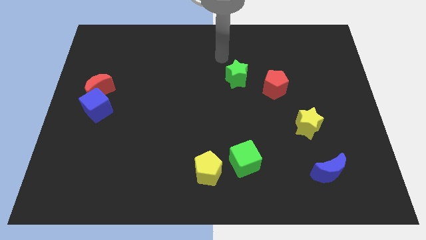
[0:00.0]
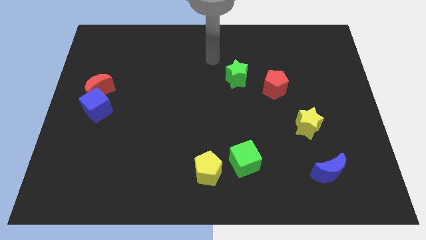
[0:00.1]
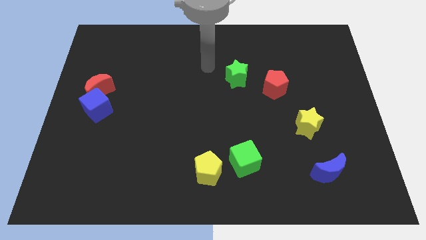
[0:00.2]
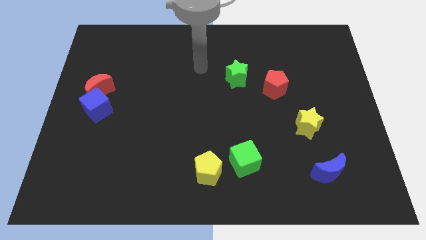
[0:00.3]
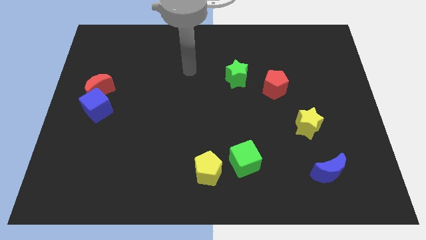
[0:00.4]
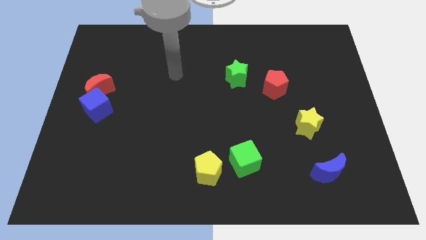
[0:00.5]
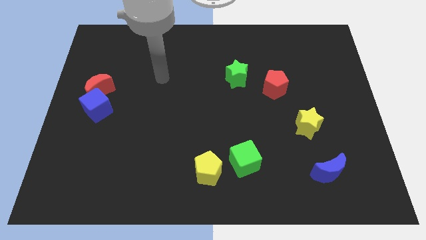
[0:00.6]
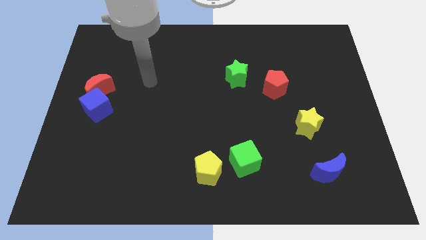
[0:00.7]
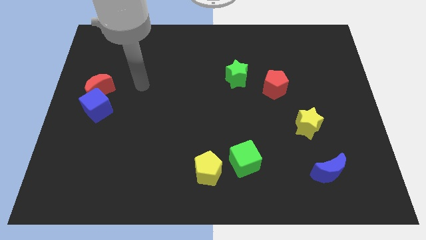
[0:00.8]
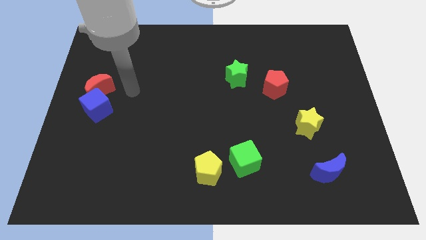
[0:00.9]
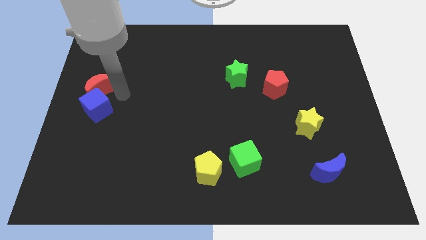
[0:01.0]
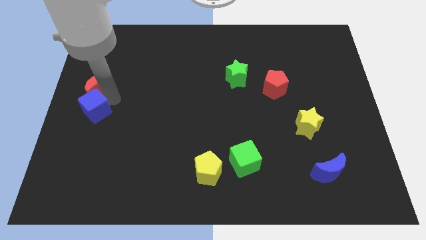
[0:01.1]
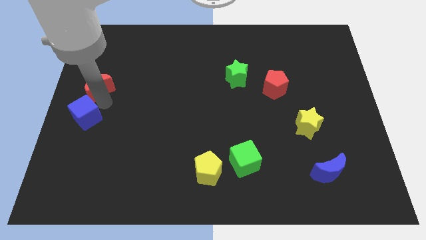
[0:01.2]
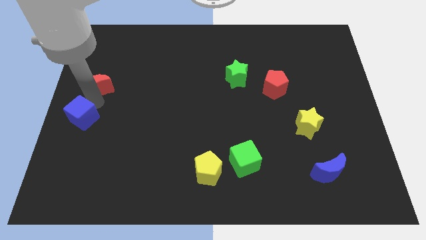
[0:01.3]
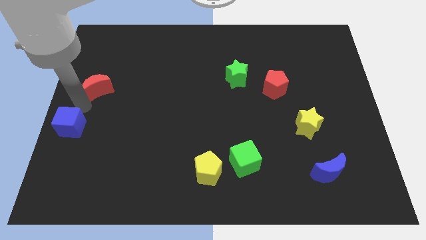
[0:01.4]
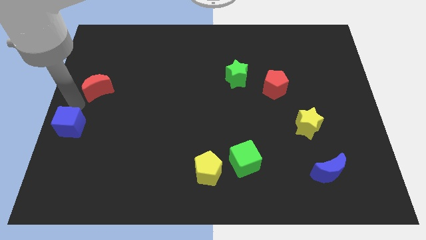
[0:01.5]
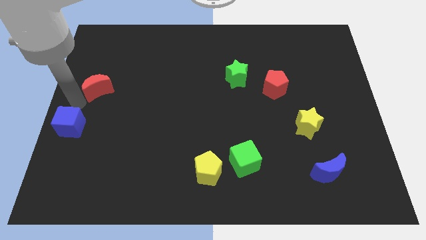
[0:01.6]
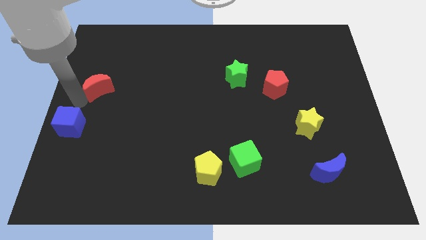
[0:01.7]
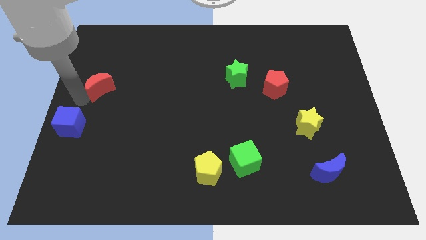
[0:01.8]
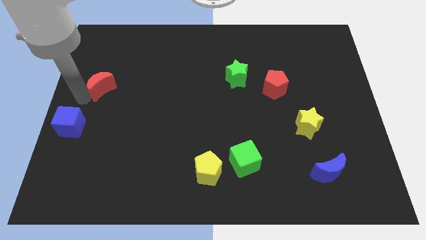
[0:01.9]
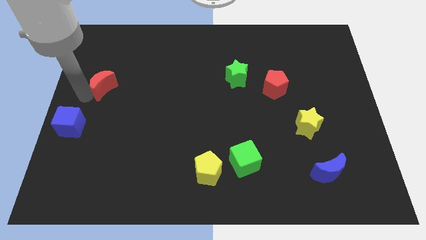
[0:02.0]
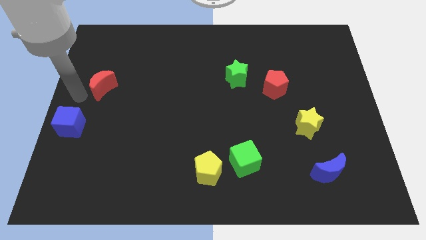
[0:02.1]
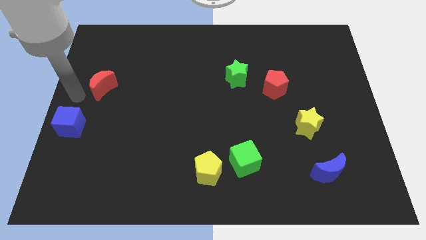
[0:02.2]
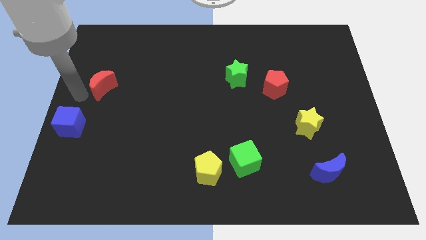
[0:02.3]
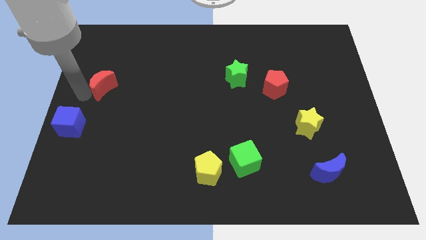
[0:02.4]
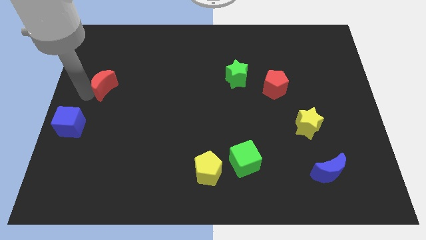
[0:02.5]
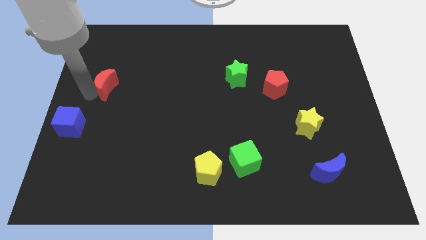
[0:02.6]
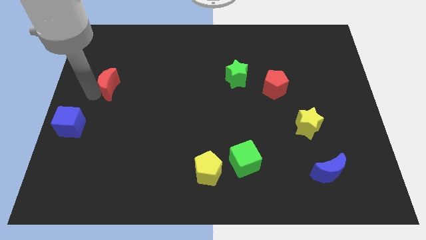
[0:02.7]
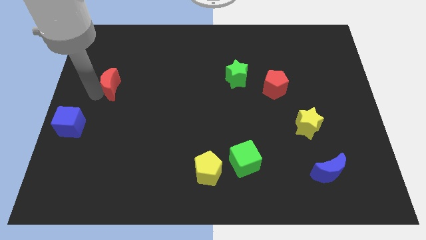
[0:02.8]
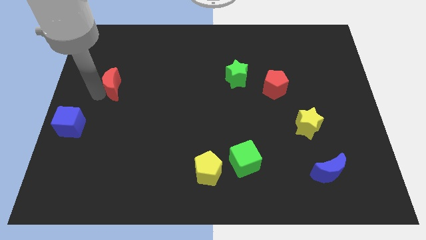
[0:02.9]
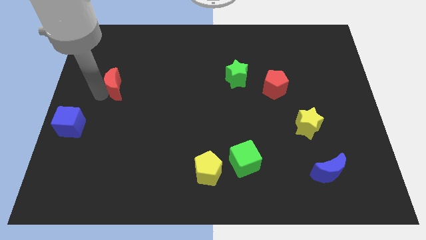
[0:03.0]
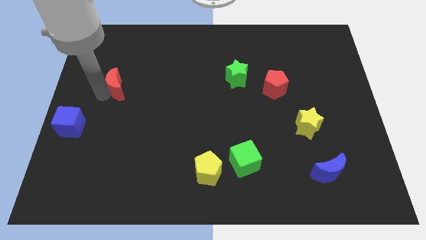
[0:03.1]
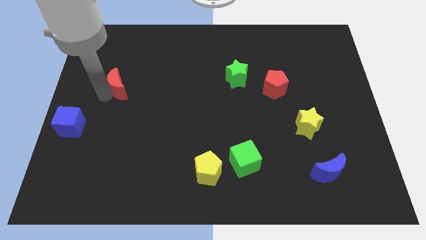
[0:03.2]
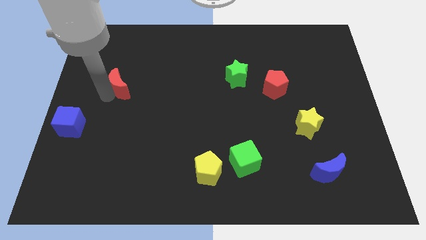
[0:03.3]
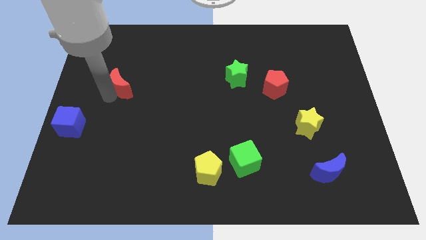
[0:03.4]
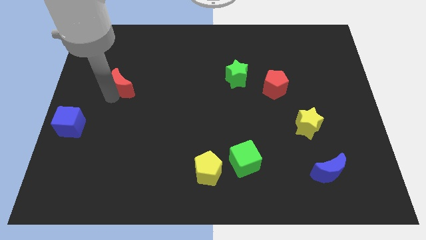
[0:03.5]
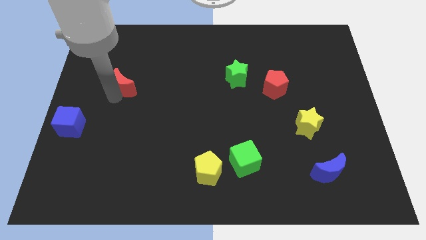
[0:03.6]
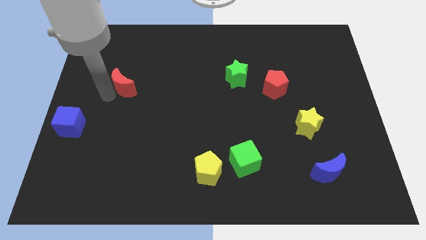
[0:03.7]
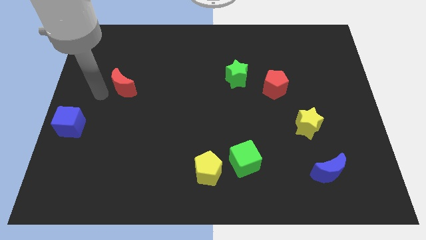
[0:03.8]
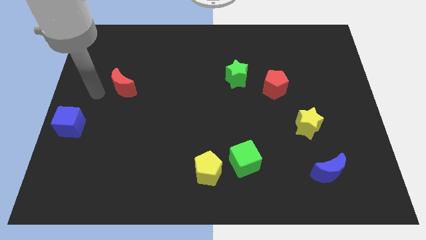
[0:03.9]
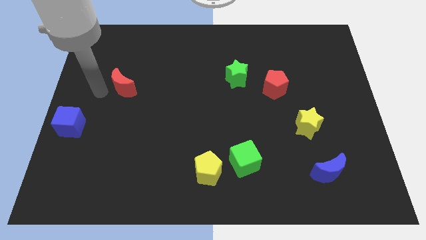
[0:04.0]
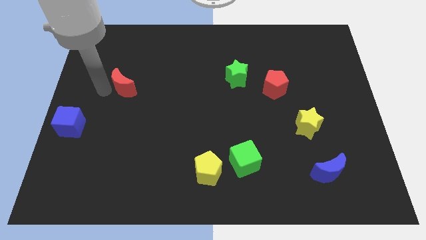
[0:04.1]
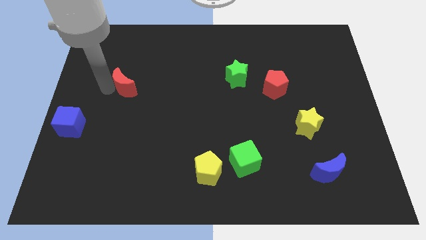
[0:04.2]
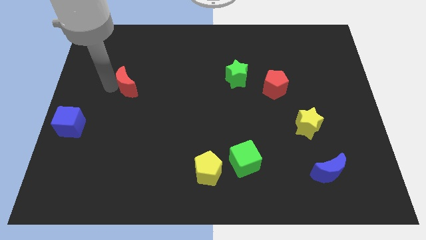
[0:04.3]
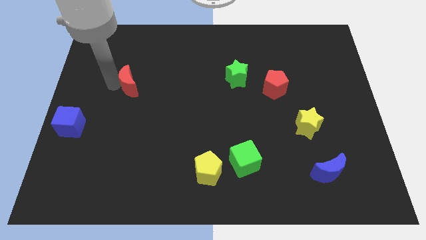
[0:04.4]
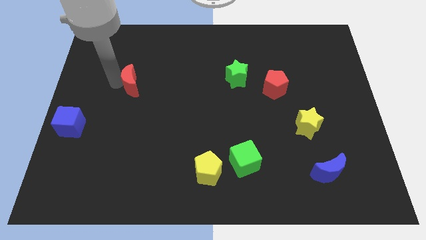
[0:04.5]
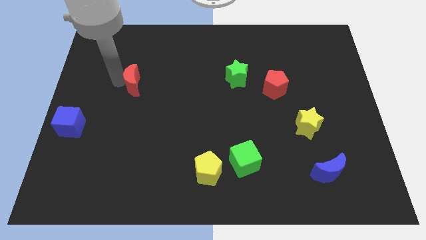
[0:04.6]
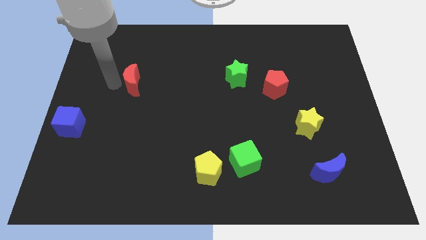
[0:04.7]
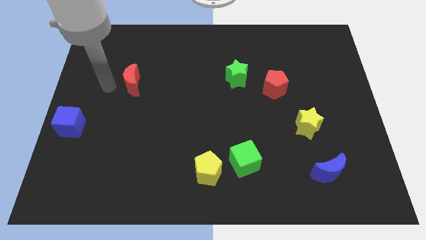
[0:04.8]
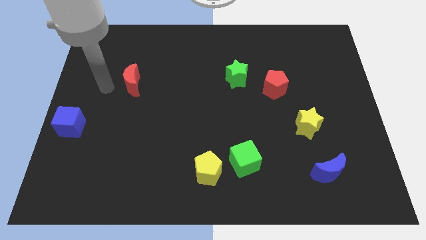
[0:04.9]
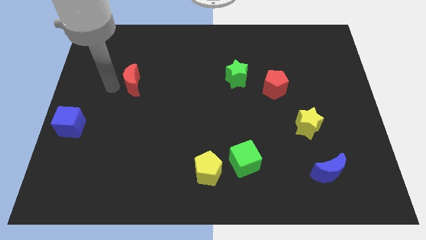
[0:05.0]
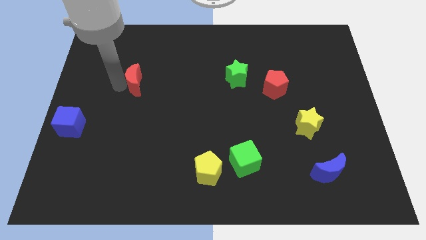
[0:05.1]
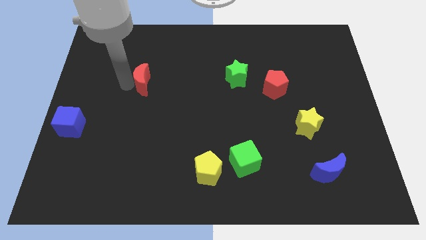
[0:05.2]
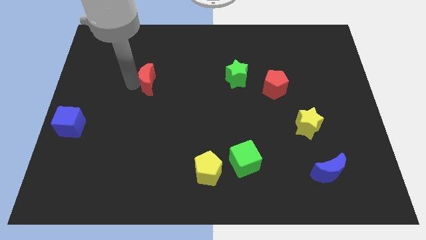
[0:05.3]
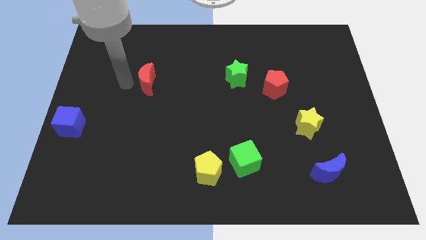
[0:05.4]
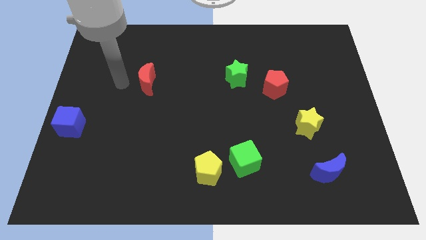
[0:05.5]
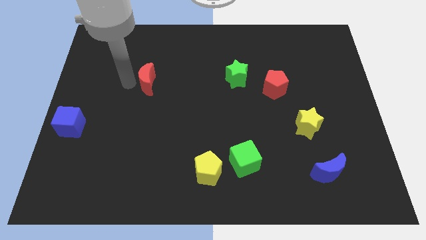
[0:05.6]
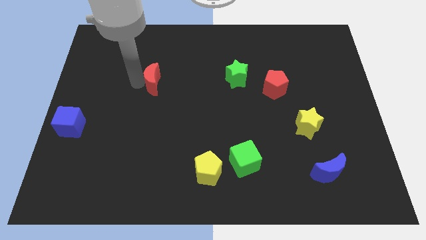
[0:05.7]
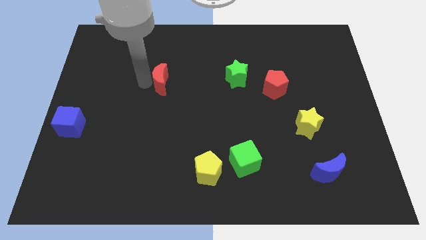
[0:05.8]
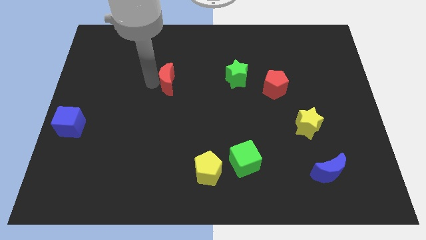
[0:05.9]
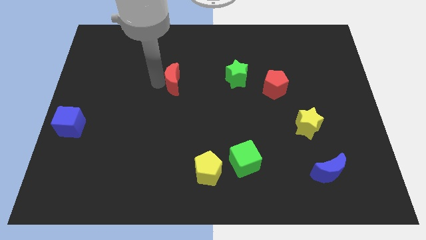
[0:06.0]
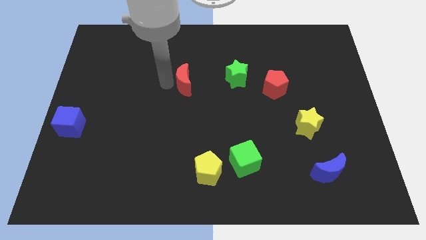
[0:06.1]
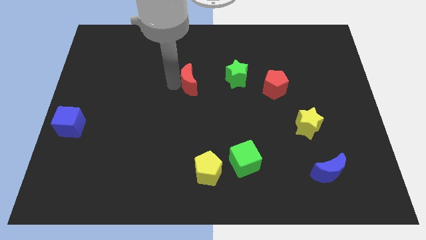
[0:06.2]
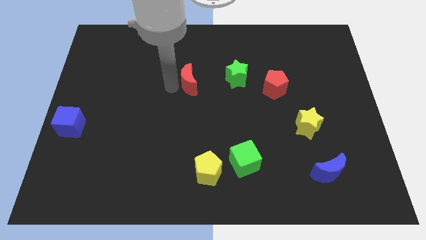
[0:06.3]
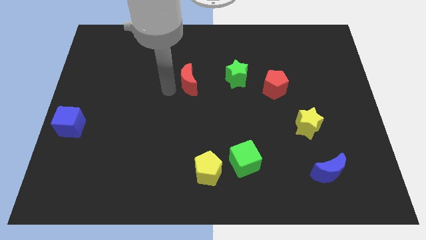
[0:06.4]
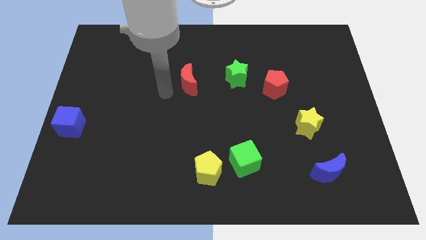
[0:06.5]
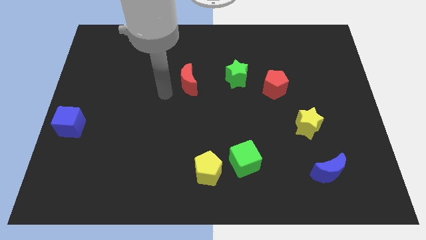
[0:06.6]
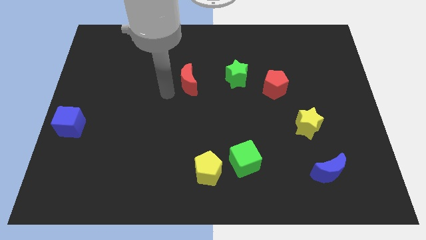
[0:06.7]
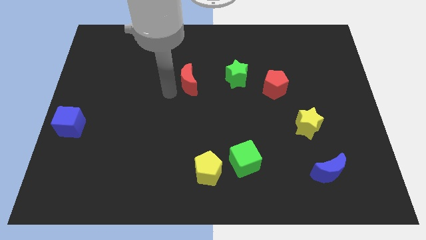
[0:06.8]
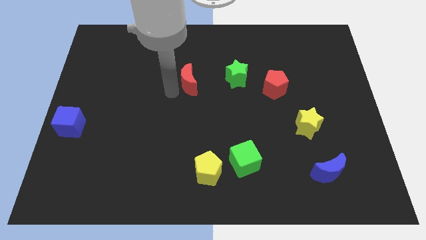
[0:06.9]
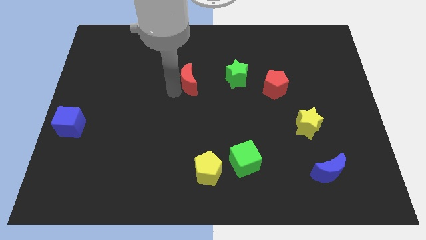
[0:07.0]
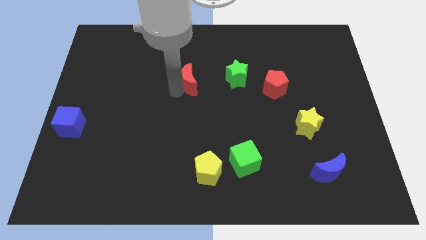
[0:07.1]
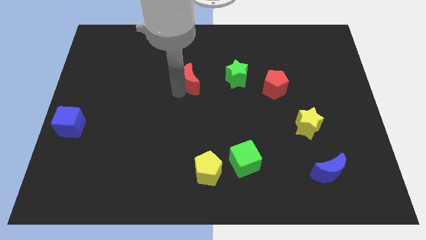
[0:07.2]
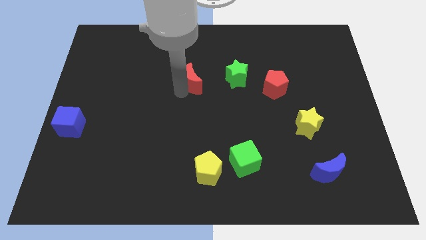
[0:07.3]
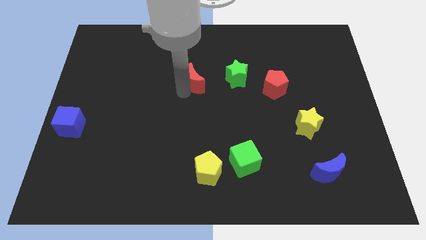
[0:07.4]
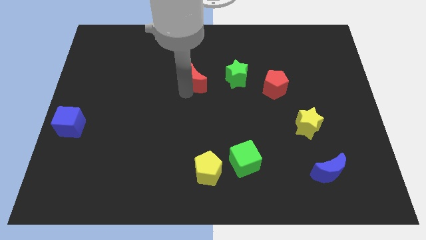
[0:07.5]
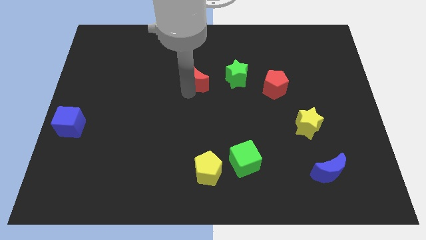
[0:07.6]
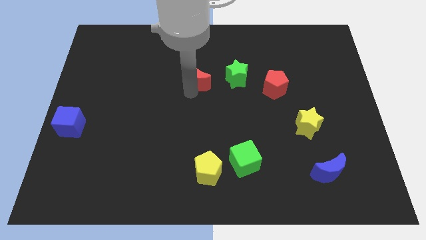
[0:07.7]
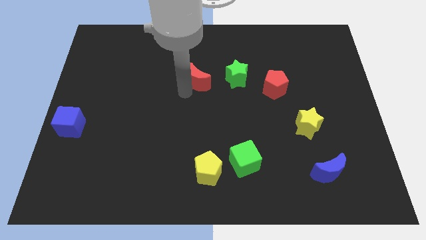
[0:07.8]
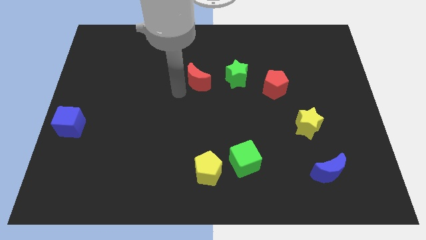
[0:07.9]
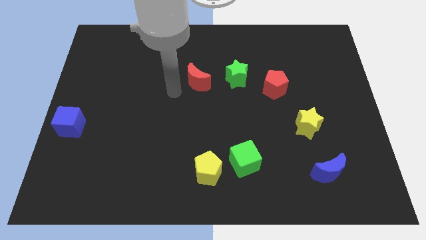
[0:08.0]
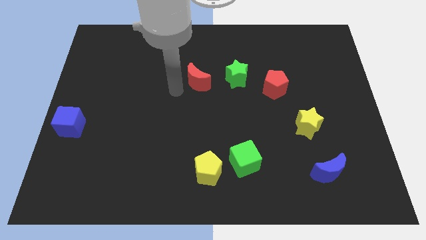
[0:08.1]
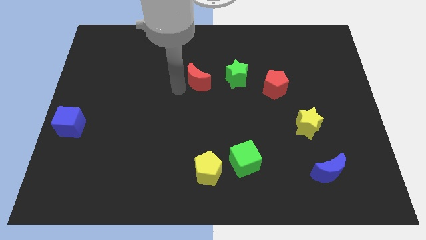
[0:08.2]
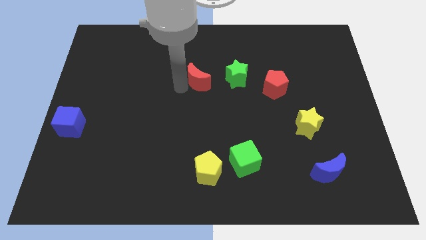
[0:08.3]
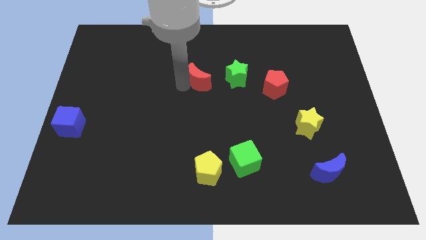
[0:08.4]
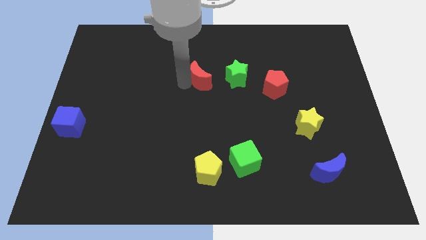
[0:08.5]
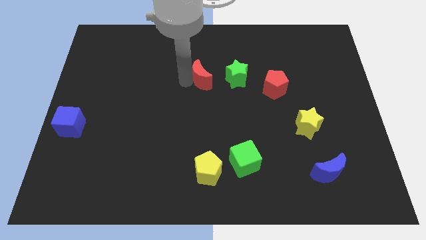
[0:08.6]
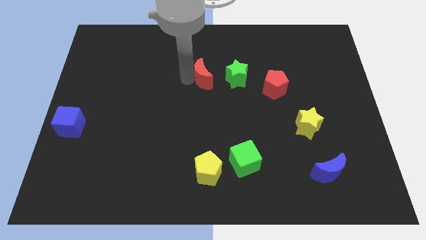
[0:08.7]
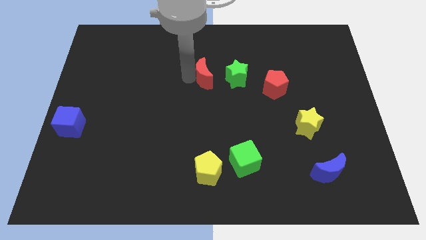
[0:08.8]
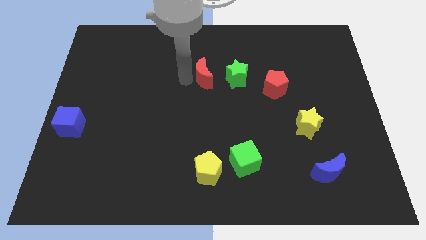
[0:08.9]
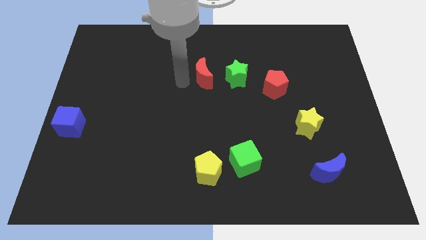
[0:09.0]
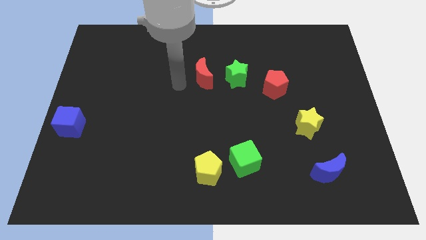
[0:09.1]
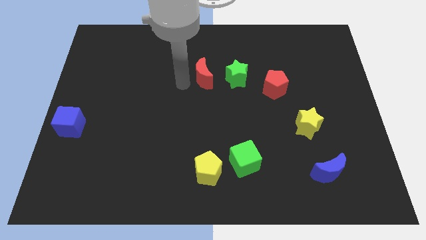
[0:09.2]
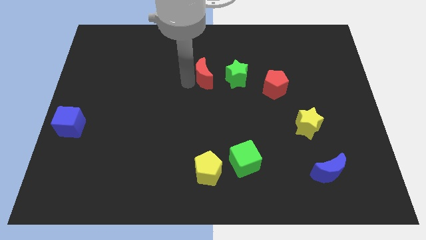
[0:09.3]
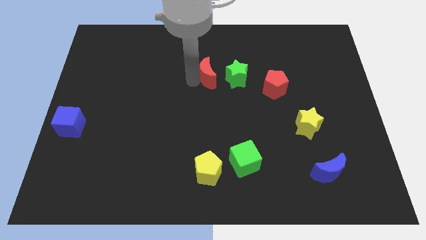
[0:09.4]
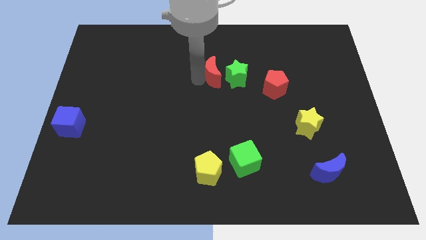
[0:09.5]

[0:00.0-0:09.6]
put the red moon next to the green star
